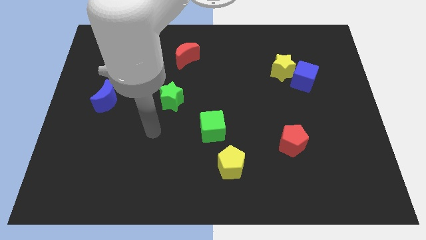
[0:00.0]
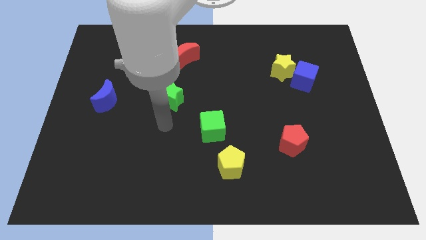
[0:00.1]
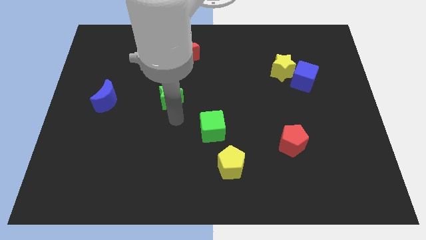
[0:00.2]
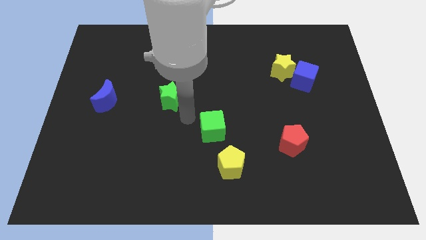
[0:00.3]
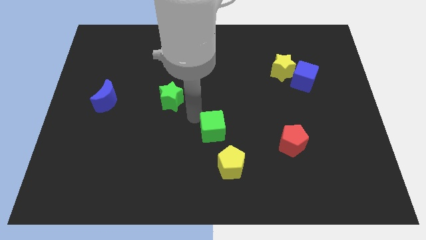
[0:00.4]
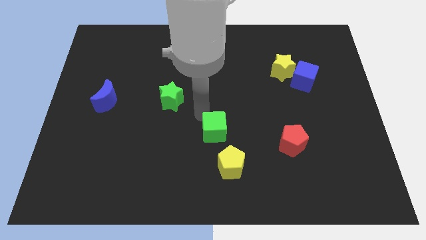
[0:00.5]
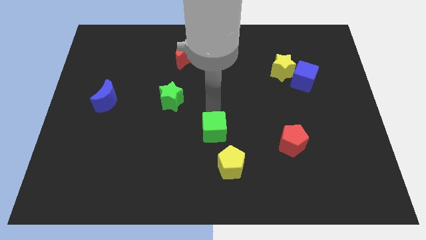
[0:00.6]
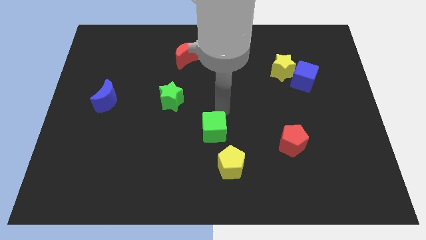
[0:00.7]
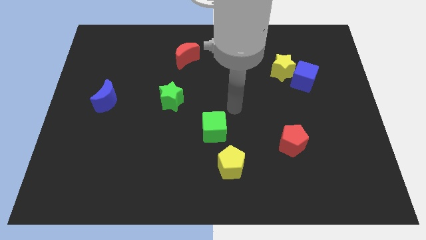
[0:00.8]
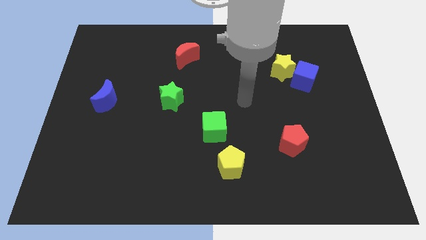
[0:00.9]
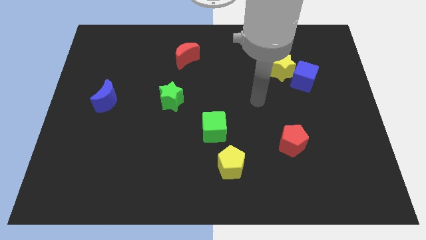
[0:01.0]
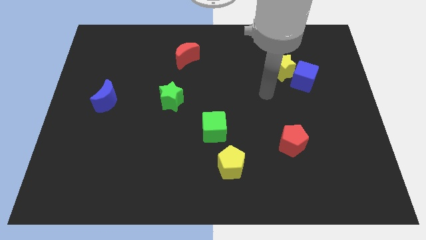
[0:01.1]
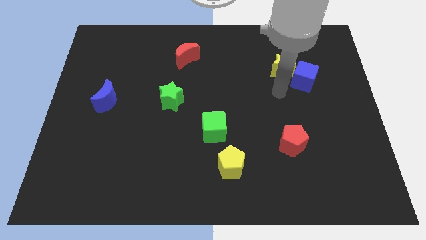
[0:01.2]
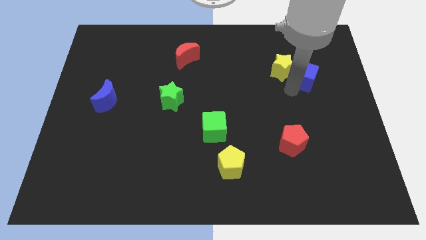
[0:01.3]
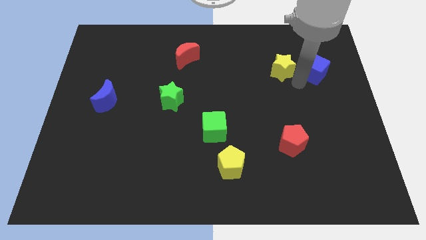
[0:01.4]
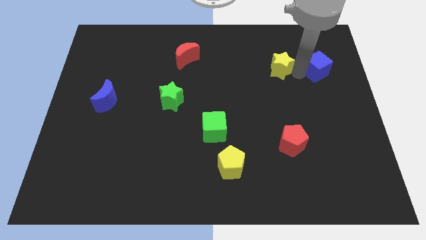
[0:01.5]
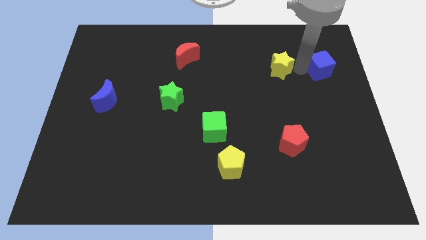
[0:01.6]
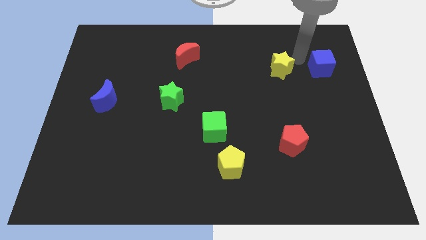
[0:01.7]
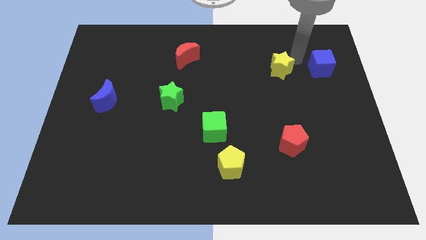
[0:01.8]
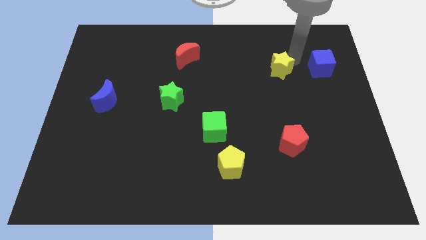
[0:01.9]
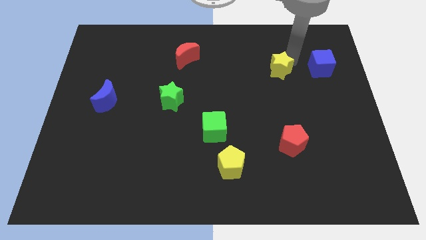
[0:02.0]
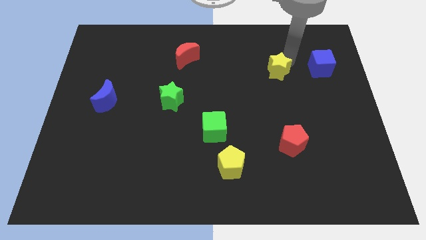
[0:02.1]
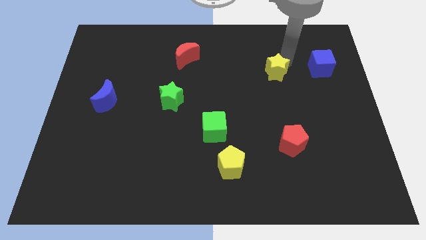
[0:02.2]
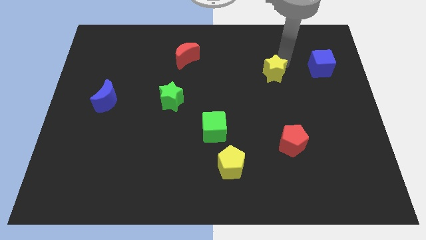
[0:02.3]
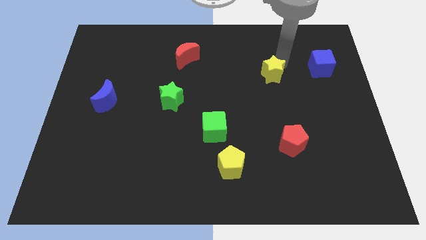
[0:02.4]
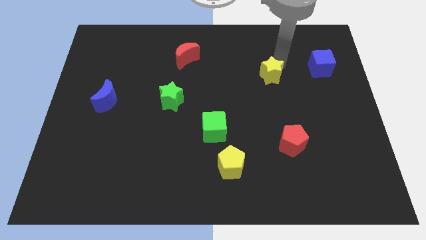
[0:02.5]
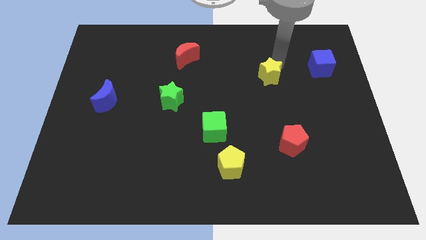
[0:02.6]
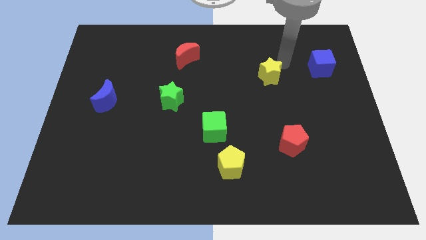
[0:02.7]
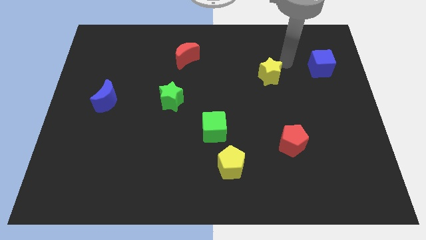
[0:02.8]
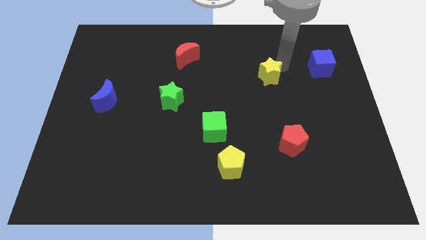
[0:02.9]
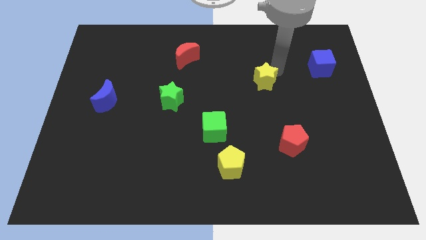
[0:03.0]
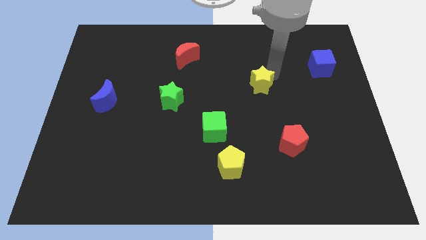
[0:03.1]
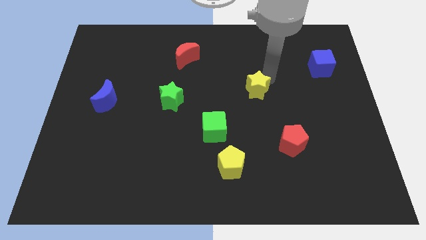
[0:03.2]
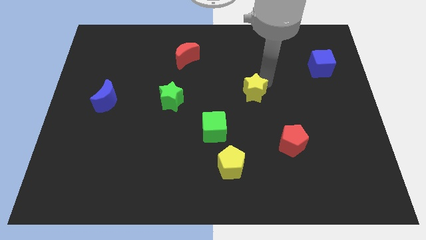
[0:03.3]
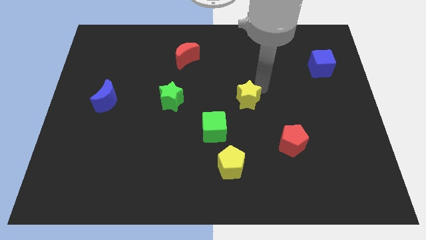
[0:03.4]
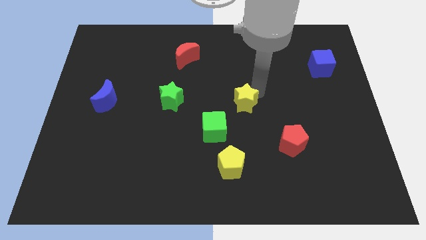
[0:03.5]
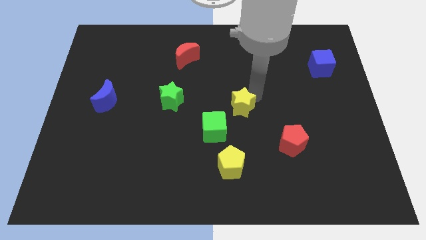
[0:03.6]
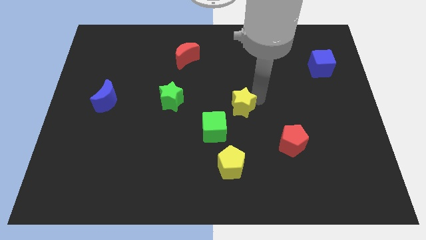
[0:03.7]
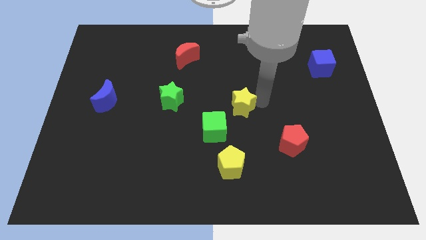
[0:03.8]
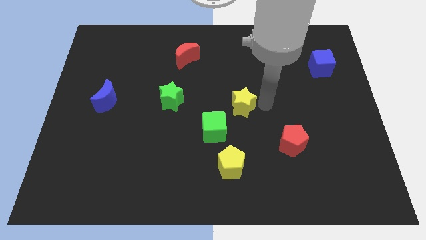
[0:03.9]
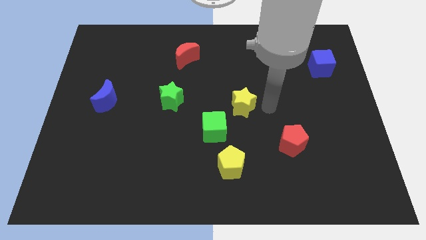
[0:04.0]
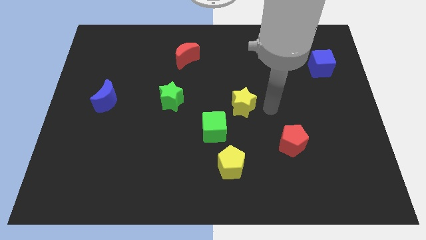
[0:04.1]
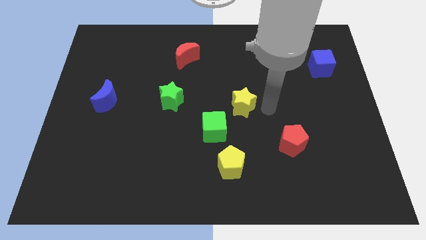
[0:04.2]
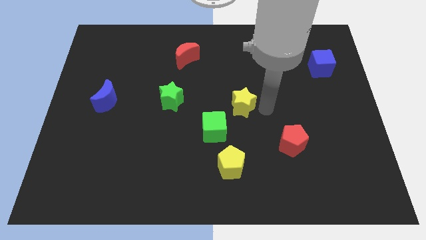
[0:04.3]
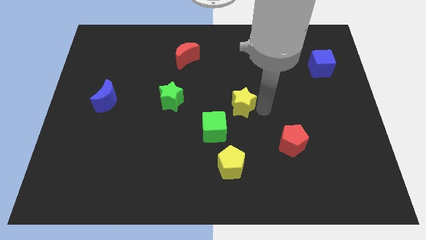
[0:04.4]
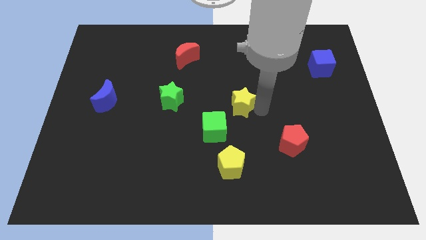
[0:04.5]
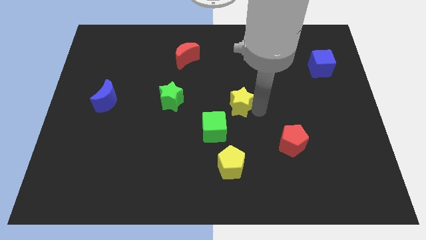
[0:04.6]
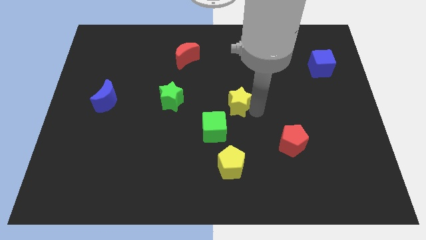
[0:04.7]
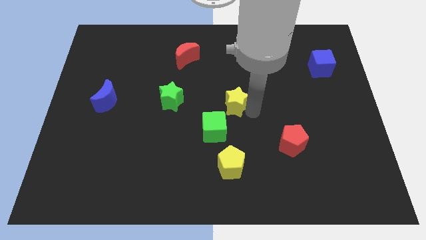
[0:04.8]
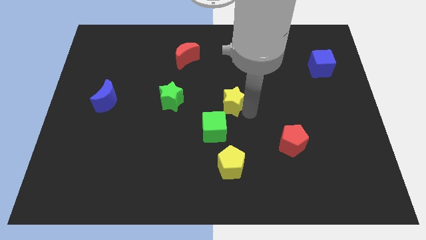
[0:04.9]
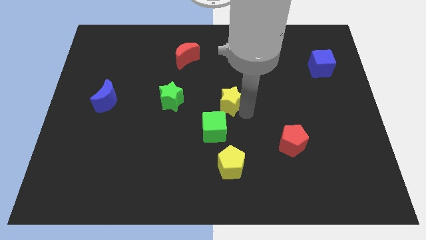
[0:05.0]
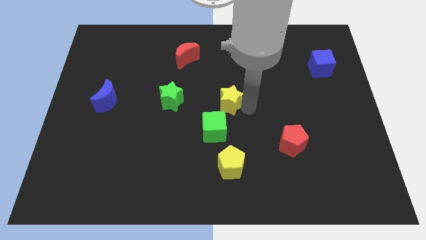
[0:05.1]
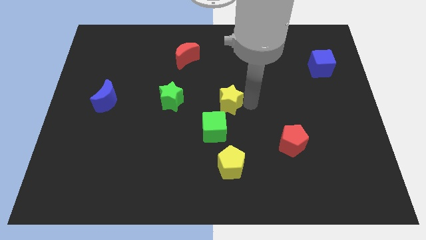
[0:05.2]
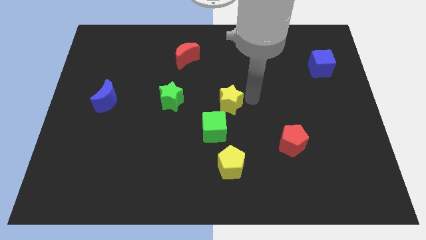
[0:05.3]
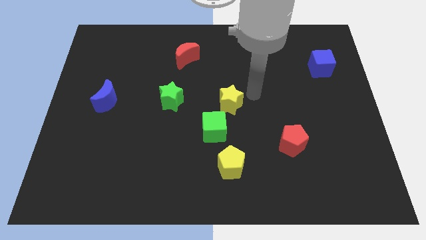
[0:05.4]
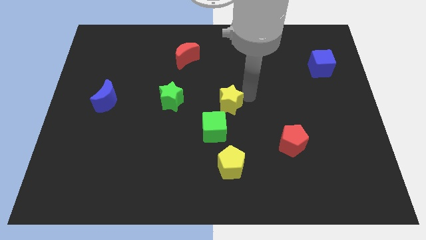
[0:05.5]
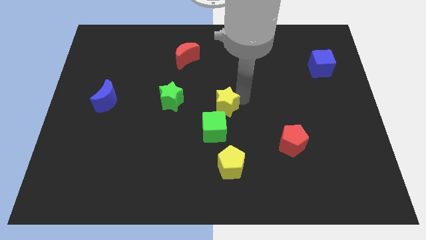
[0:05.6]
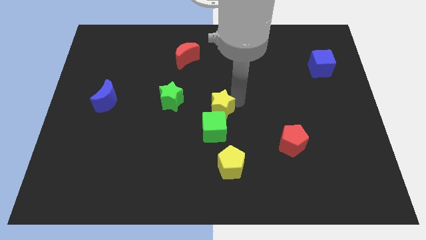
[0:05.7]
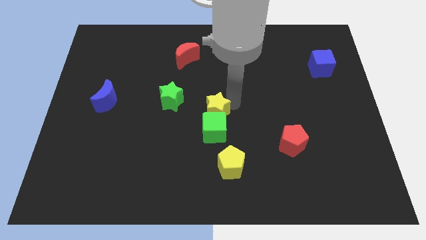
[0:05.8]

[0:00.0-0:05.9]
move the yellow star downwards and to the left diagonally

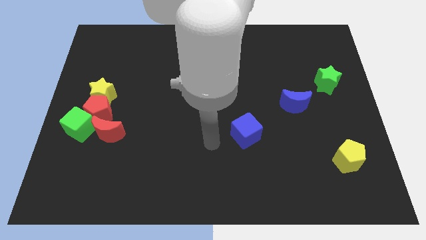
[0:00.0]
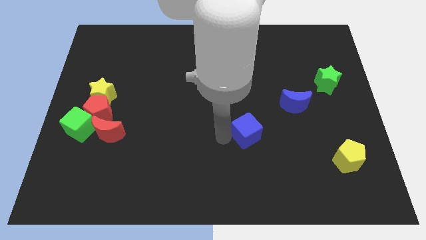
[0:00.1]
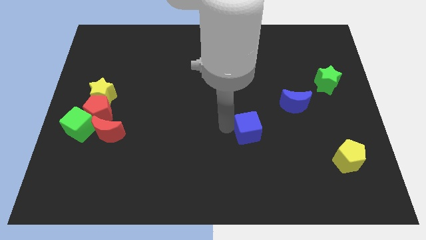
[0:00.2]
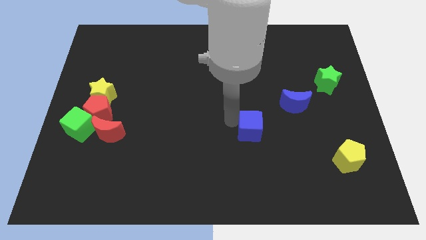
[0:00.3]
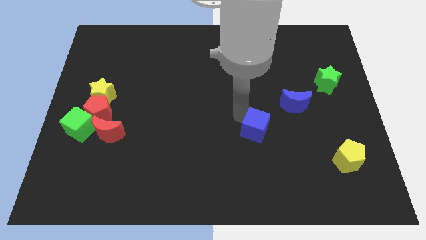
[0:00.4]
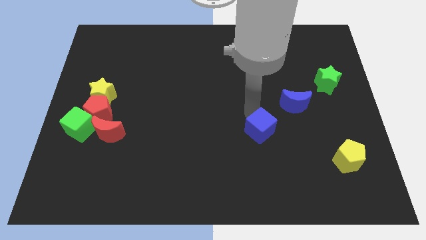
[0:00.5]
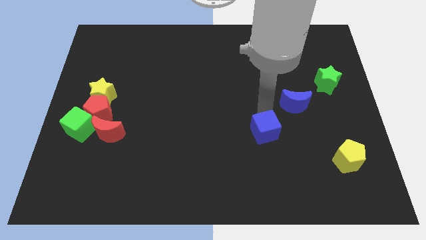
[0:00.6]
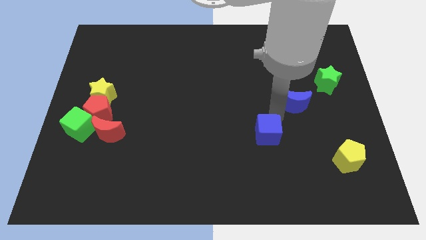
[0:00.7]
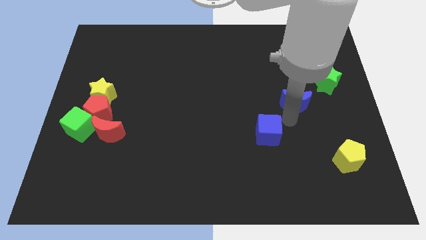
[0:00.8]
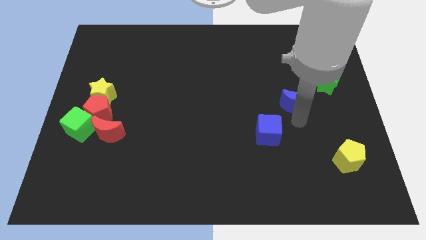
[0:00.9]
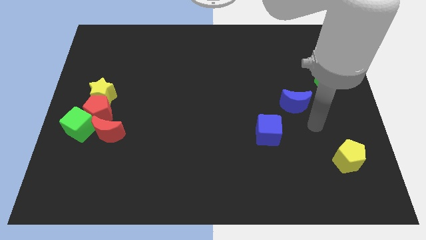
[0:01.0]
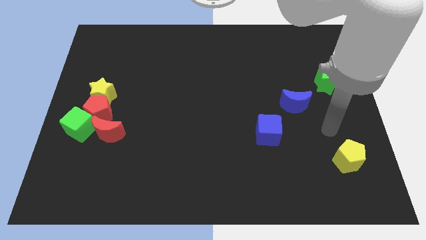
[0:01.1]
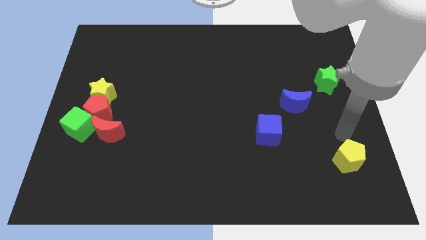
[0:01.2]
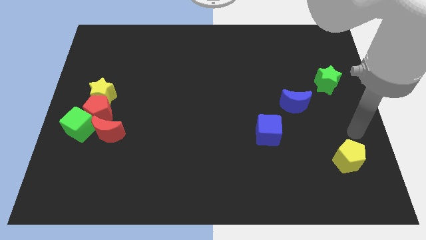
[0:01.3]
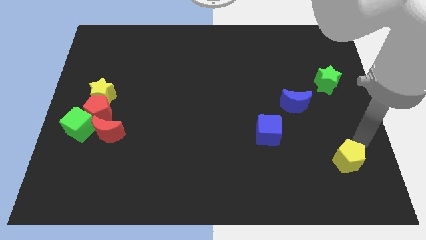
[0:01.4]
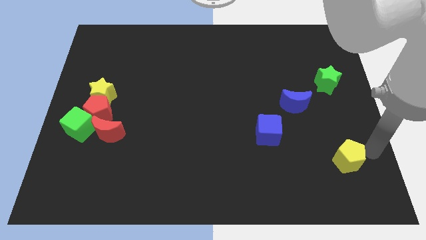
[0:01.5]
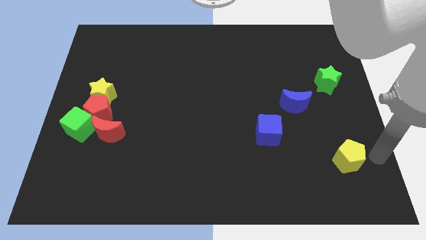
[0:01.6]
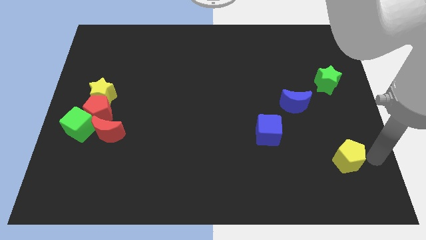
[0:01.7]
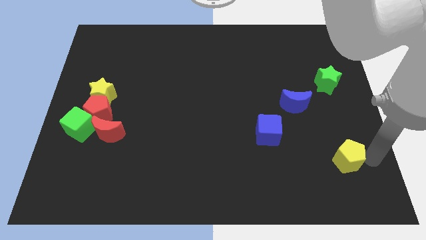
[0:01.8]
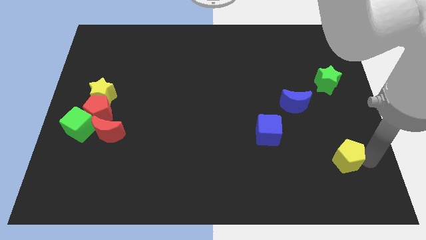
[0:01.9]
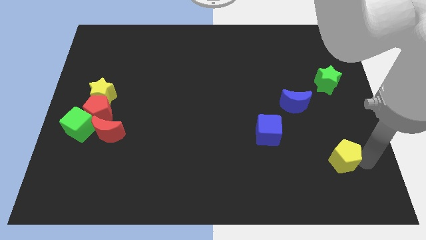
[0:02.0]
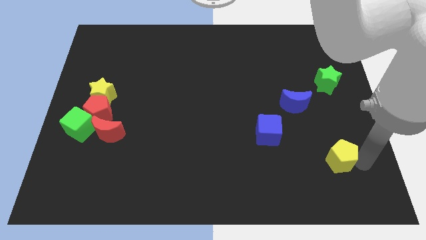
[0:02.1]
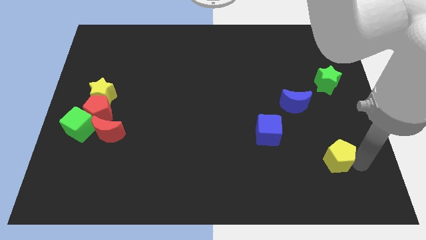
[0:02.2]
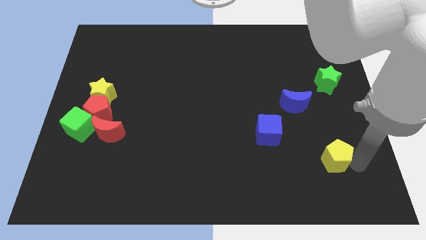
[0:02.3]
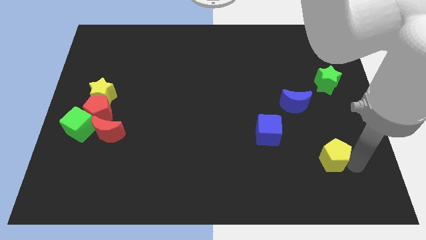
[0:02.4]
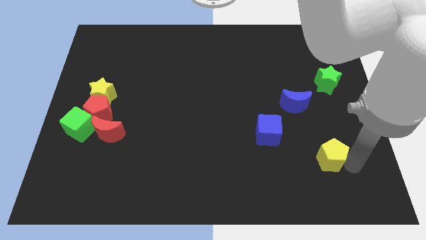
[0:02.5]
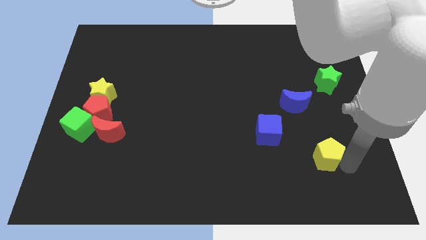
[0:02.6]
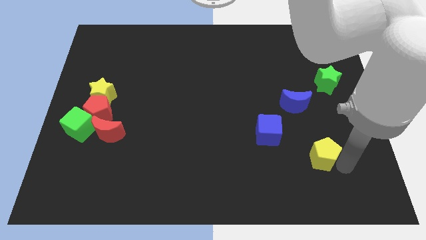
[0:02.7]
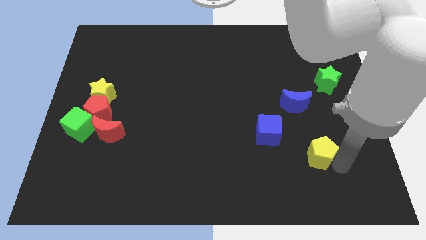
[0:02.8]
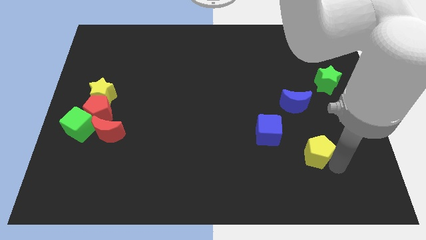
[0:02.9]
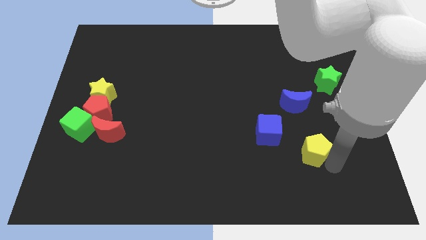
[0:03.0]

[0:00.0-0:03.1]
push the yellow pentagon a little left
